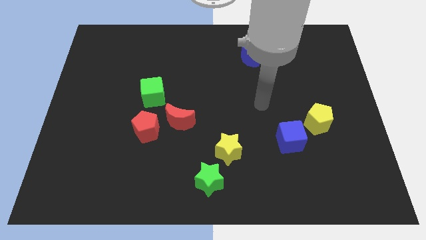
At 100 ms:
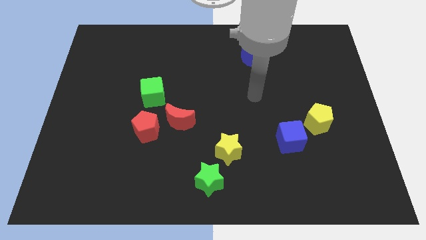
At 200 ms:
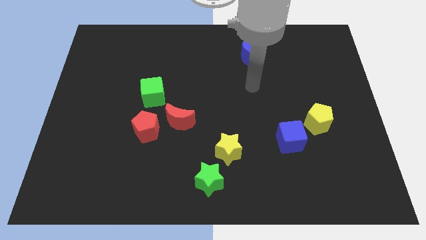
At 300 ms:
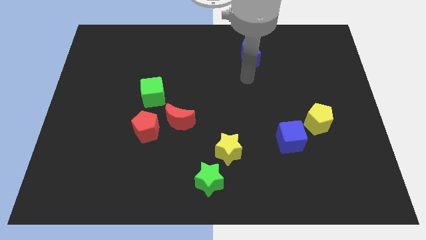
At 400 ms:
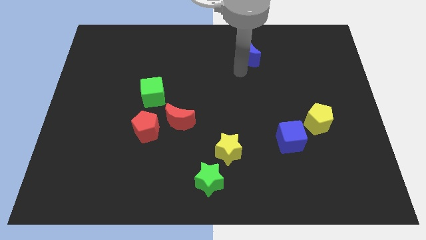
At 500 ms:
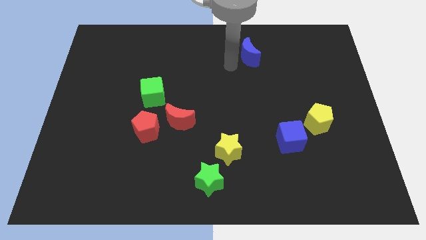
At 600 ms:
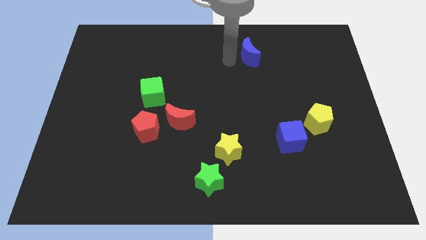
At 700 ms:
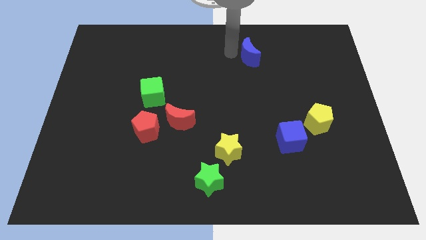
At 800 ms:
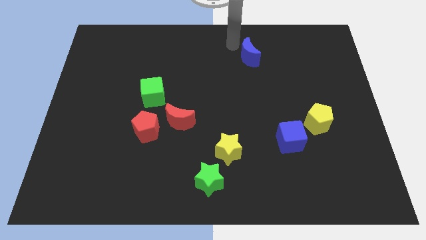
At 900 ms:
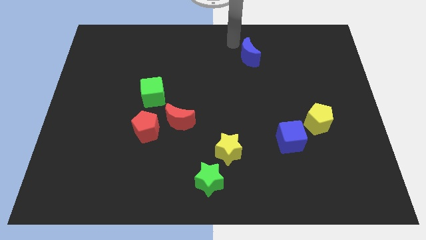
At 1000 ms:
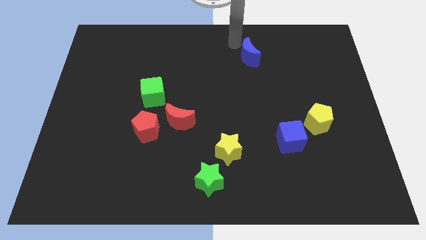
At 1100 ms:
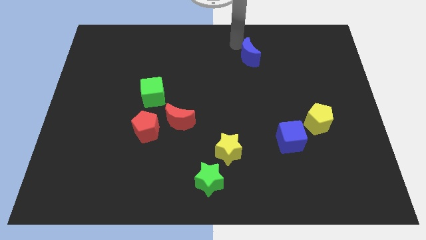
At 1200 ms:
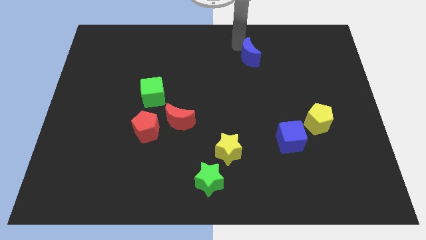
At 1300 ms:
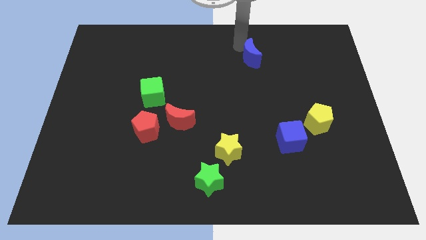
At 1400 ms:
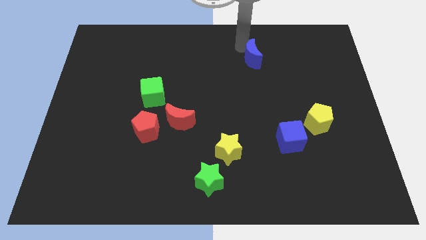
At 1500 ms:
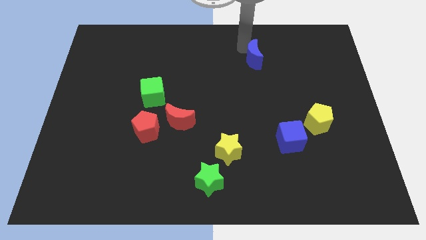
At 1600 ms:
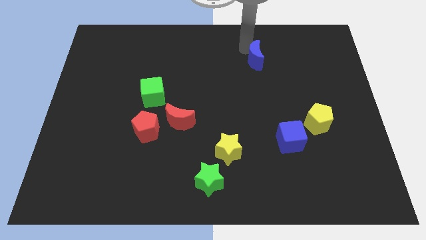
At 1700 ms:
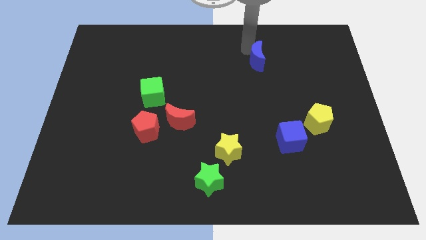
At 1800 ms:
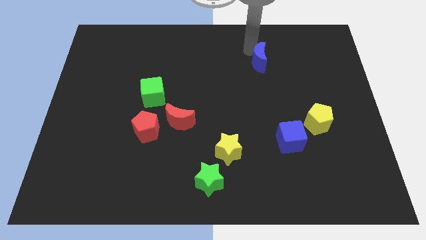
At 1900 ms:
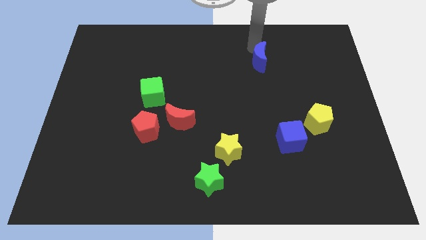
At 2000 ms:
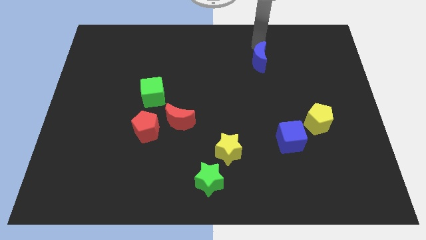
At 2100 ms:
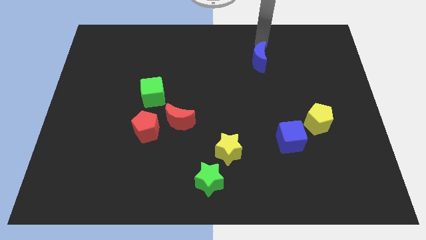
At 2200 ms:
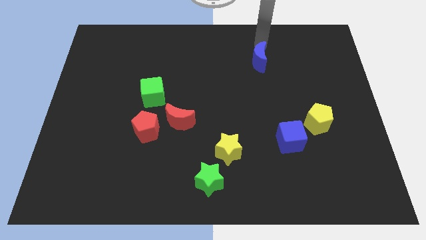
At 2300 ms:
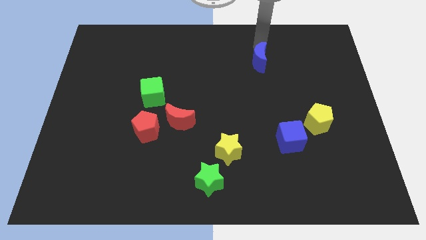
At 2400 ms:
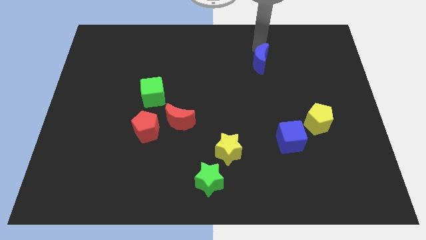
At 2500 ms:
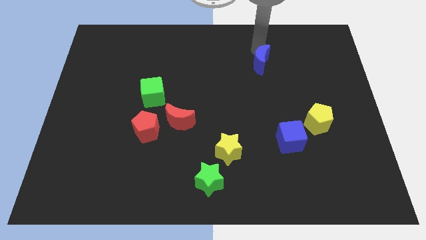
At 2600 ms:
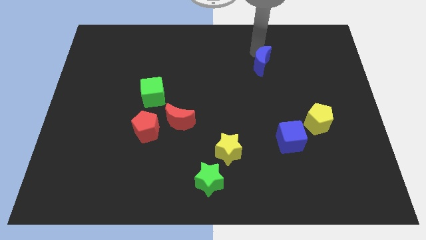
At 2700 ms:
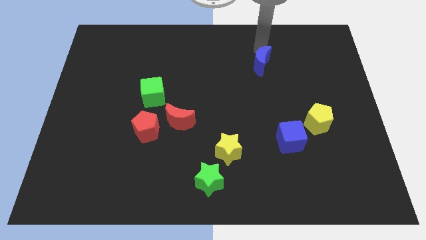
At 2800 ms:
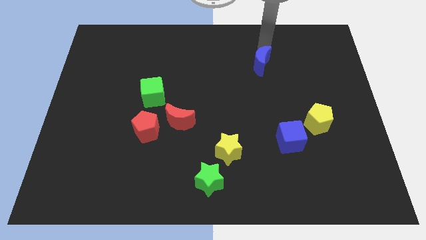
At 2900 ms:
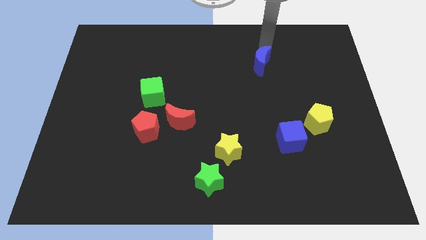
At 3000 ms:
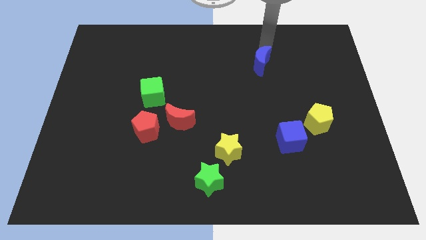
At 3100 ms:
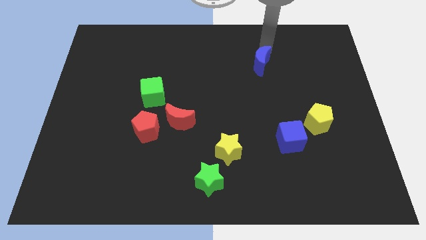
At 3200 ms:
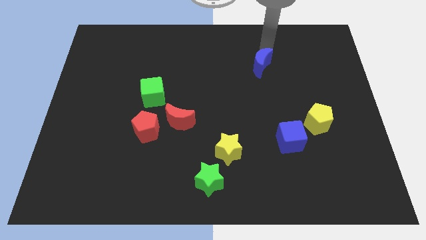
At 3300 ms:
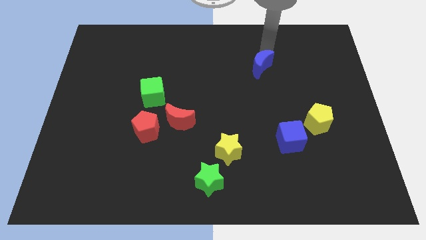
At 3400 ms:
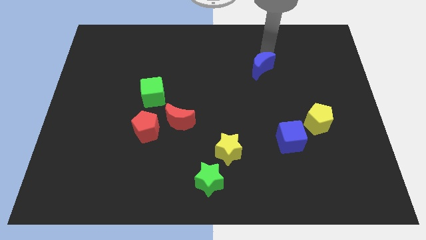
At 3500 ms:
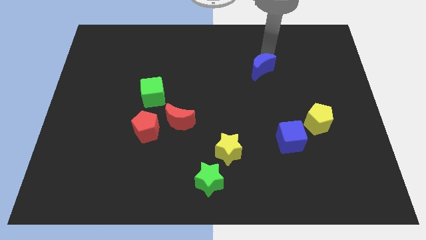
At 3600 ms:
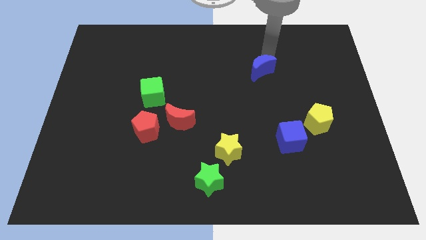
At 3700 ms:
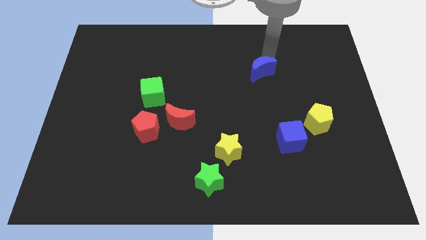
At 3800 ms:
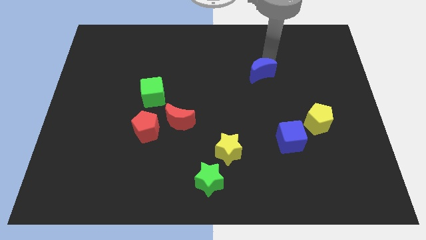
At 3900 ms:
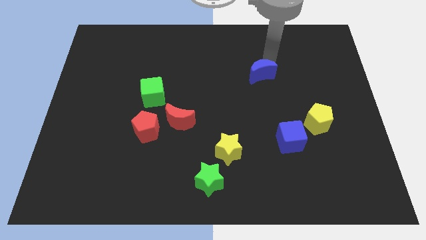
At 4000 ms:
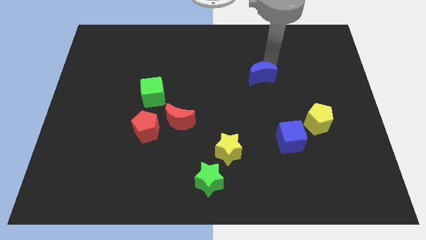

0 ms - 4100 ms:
move the blue moon slightly downwards

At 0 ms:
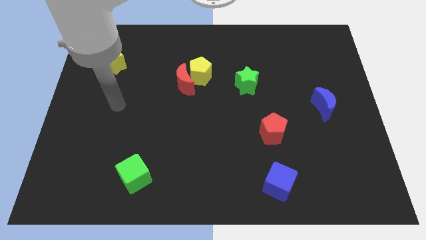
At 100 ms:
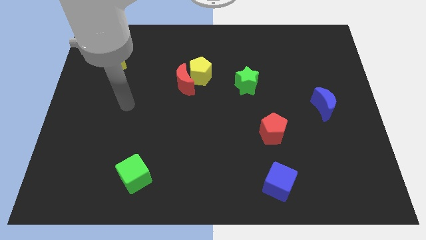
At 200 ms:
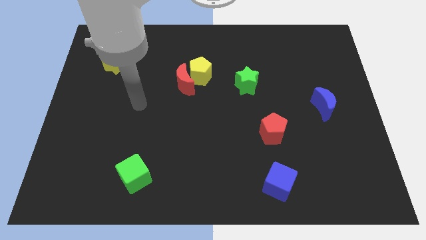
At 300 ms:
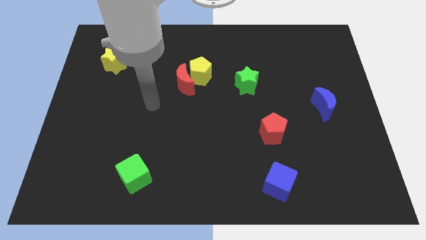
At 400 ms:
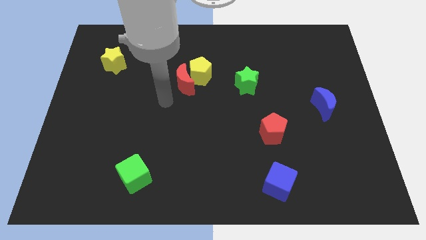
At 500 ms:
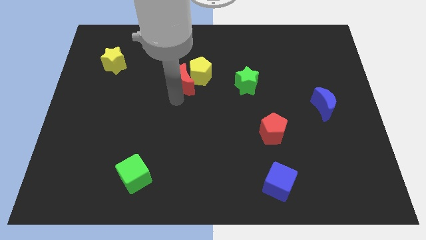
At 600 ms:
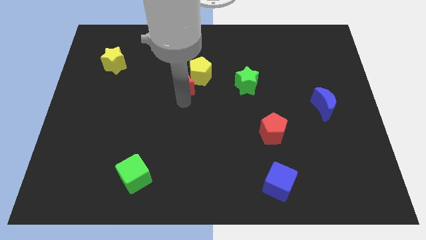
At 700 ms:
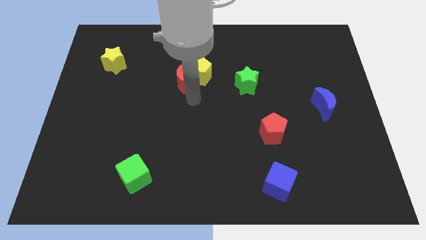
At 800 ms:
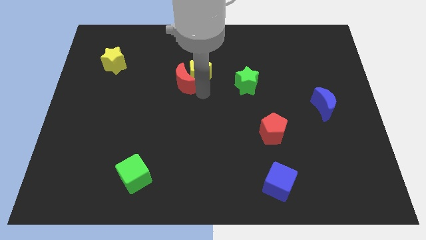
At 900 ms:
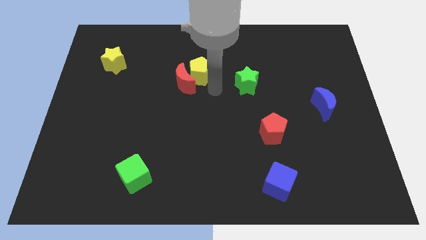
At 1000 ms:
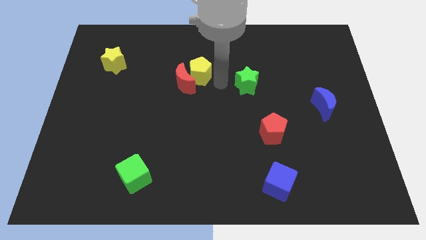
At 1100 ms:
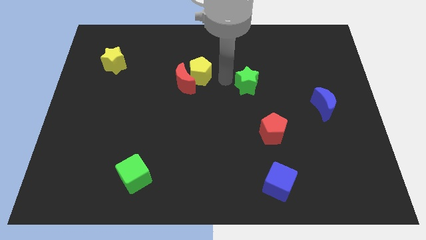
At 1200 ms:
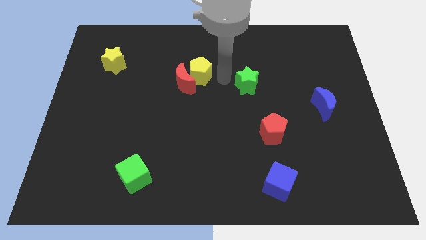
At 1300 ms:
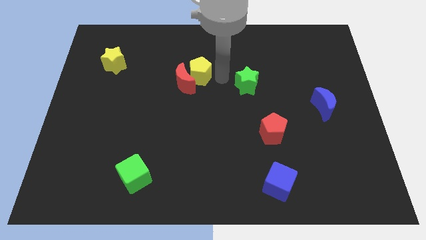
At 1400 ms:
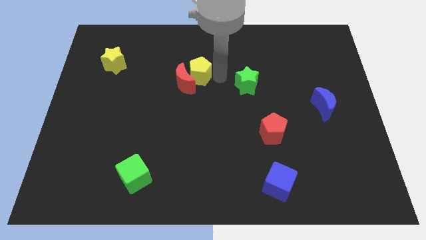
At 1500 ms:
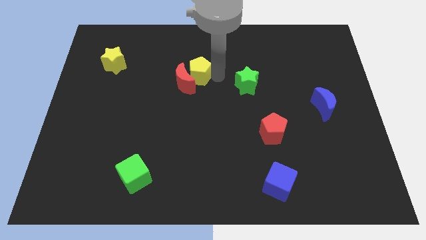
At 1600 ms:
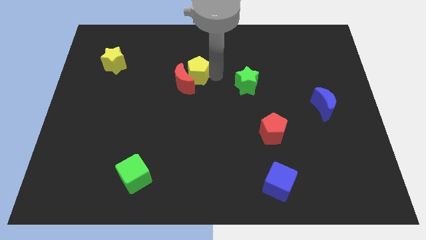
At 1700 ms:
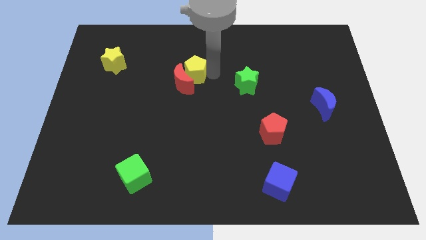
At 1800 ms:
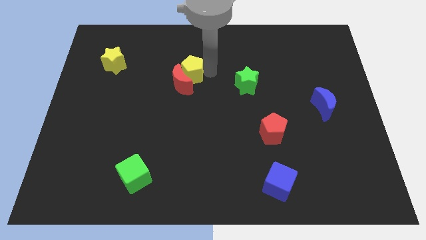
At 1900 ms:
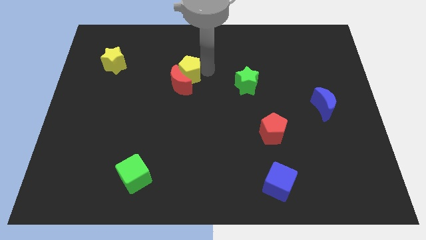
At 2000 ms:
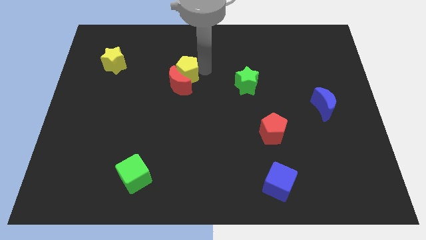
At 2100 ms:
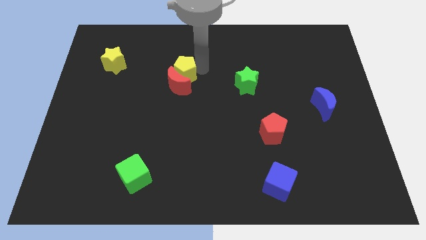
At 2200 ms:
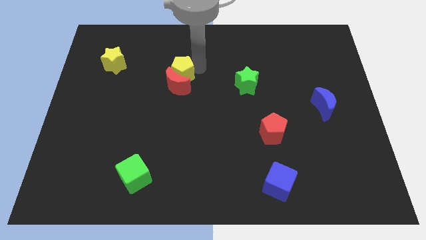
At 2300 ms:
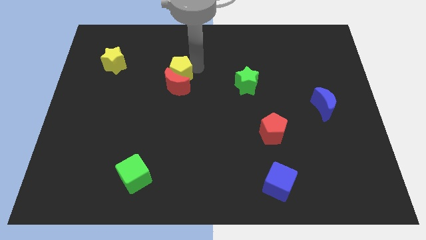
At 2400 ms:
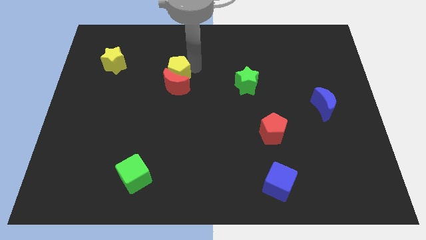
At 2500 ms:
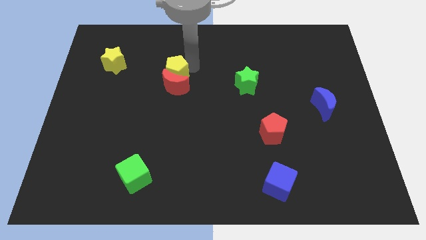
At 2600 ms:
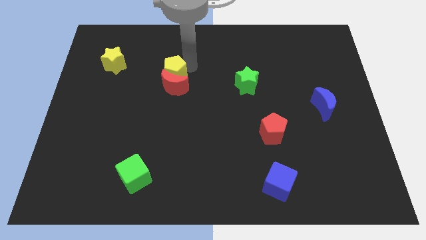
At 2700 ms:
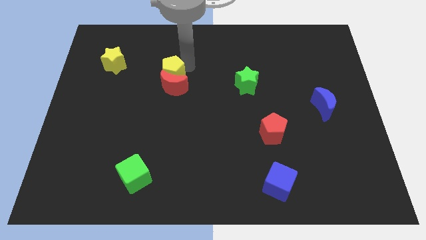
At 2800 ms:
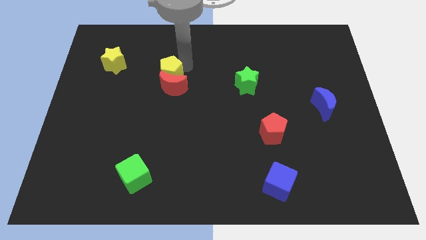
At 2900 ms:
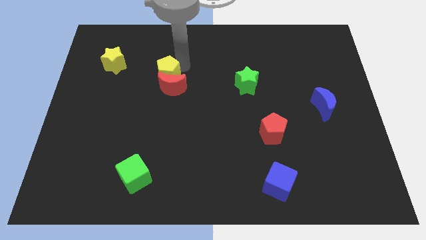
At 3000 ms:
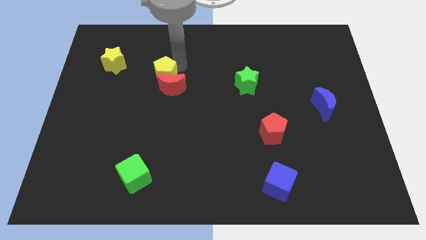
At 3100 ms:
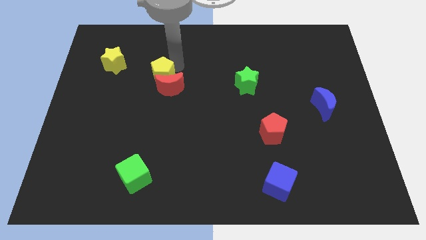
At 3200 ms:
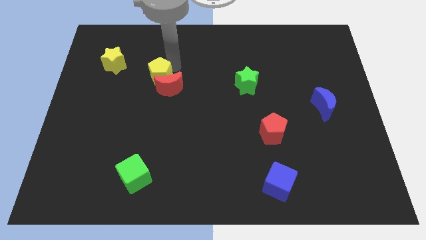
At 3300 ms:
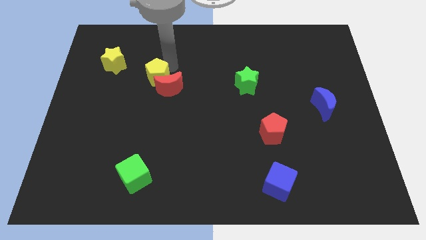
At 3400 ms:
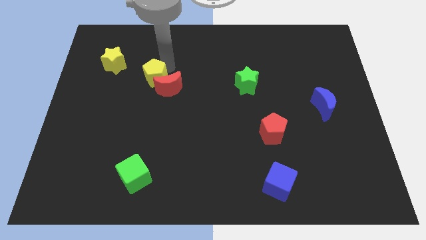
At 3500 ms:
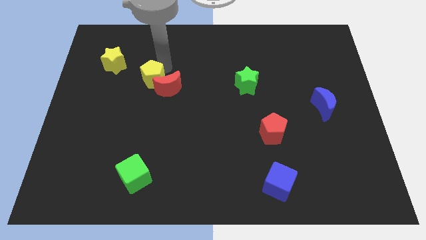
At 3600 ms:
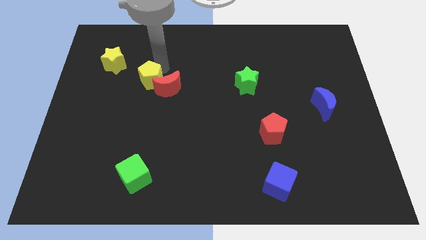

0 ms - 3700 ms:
push the yellow pentagon a little bit down and to the left diagonally

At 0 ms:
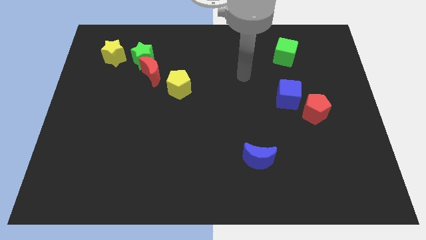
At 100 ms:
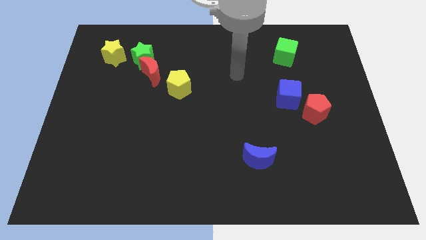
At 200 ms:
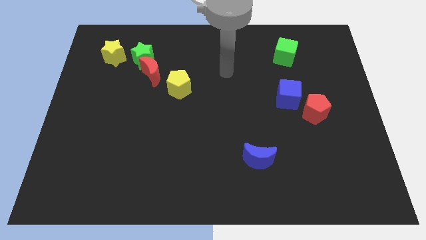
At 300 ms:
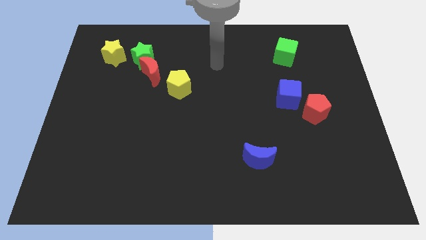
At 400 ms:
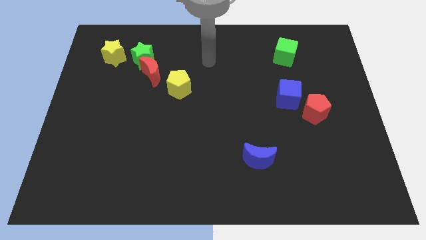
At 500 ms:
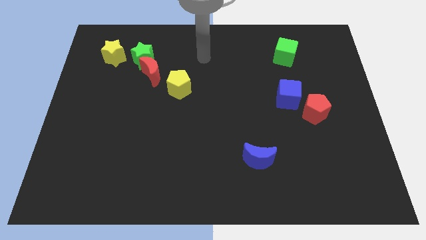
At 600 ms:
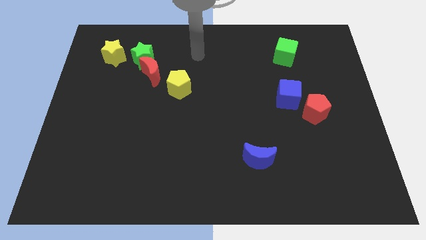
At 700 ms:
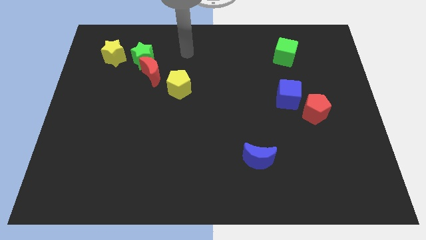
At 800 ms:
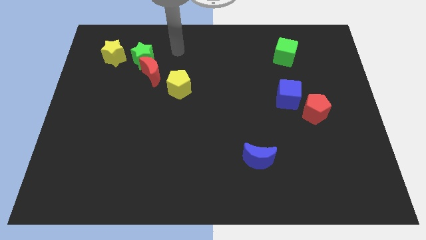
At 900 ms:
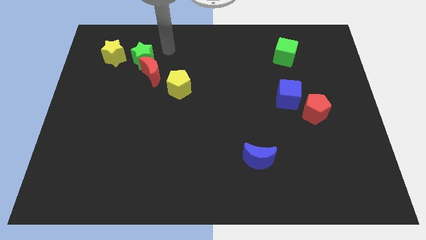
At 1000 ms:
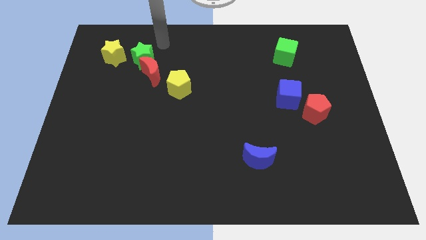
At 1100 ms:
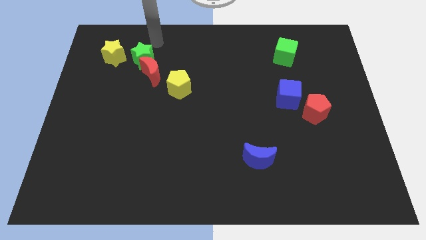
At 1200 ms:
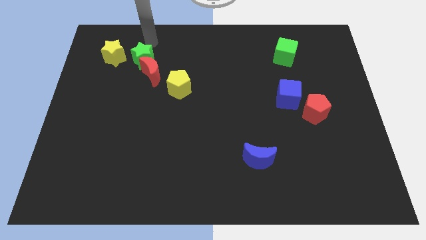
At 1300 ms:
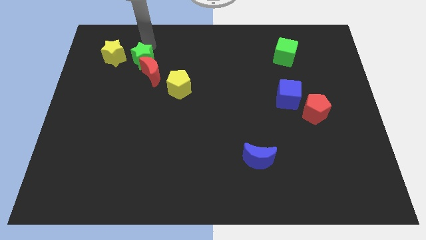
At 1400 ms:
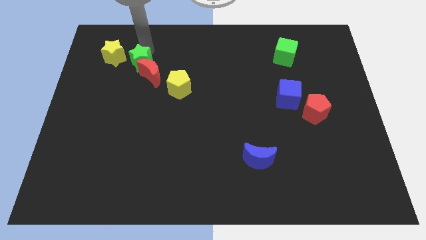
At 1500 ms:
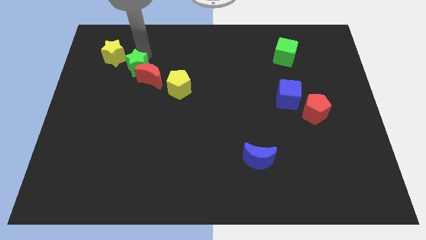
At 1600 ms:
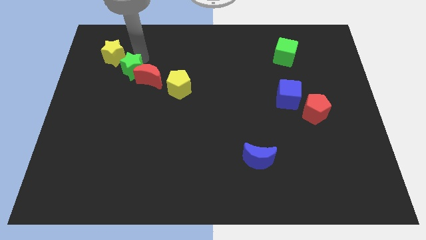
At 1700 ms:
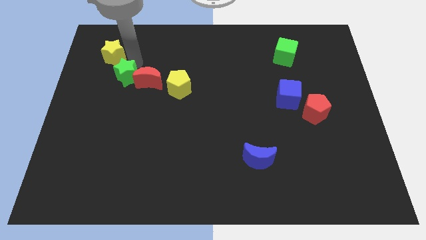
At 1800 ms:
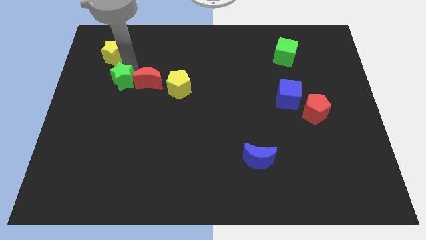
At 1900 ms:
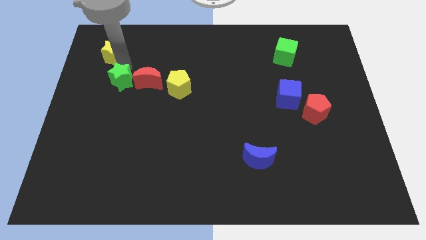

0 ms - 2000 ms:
push the green star down a bit
